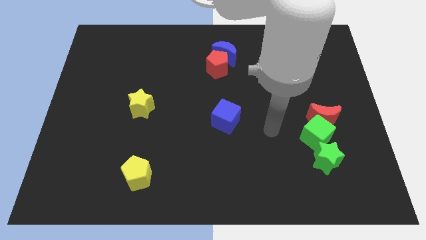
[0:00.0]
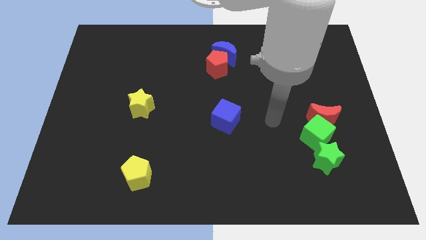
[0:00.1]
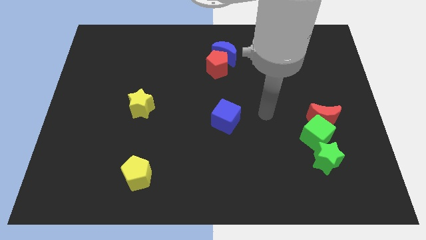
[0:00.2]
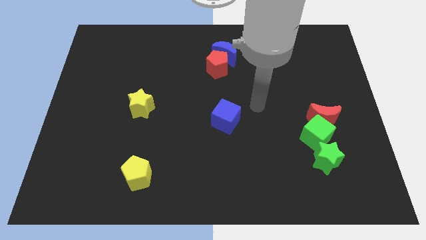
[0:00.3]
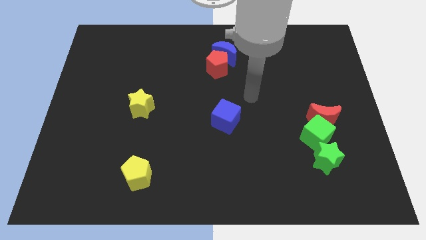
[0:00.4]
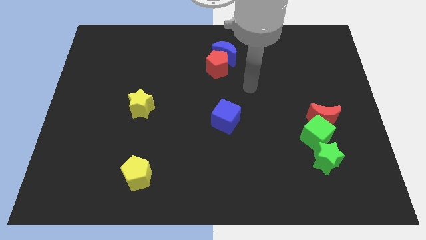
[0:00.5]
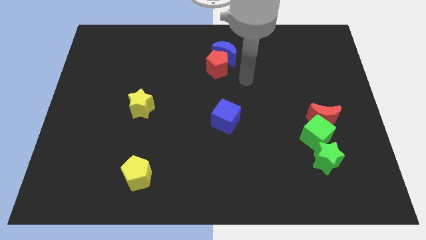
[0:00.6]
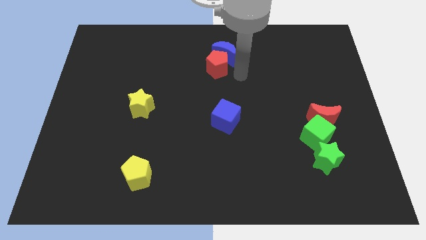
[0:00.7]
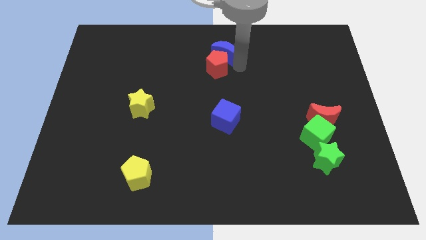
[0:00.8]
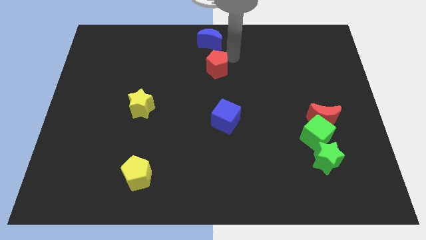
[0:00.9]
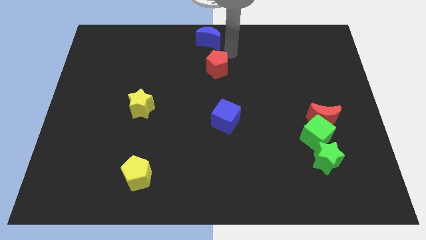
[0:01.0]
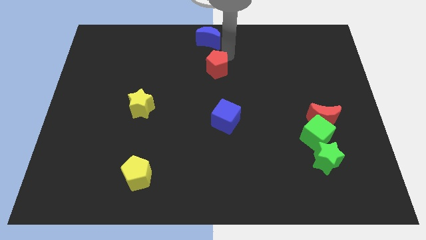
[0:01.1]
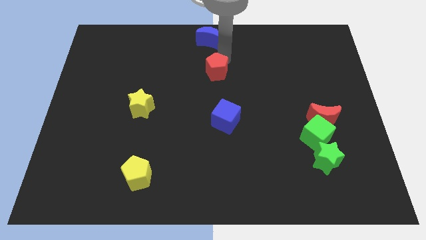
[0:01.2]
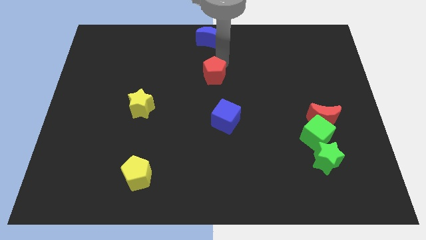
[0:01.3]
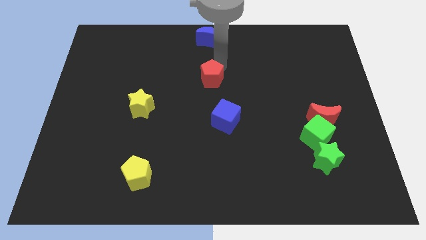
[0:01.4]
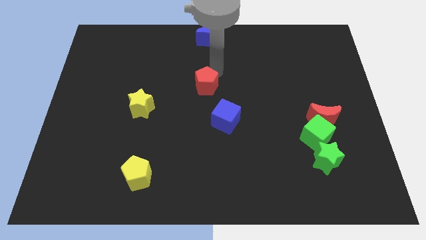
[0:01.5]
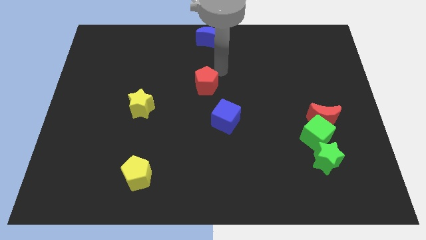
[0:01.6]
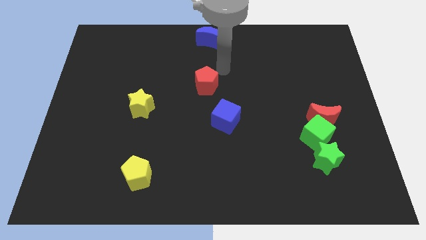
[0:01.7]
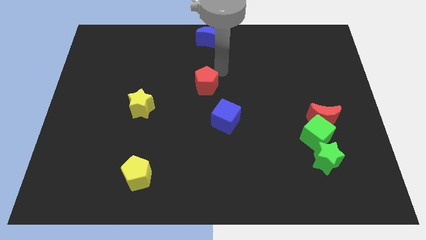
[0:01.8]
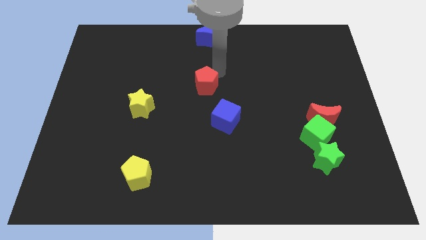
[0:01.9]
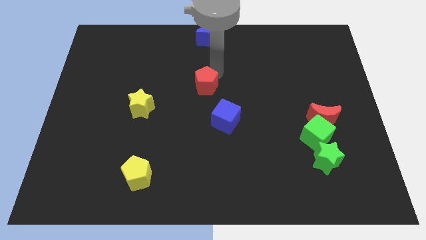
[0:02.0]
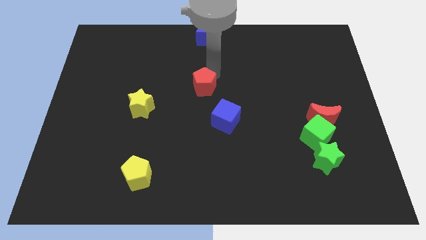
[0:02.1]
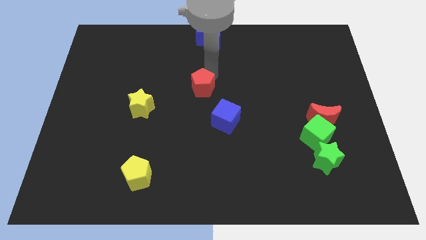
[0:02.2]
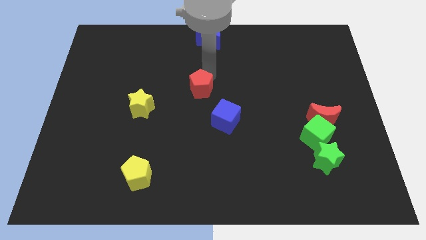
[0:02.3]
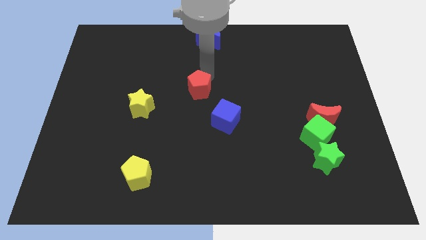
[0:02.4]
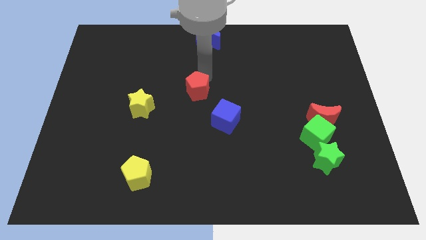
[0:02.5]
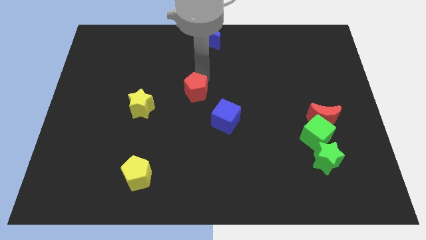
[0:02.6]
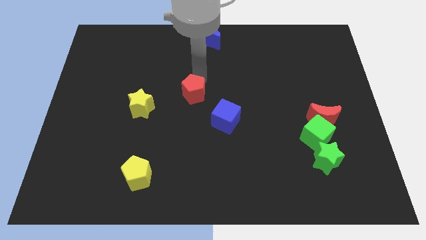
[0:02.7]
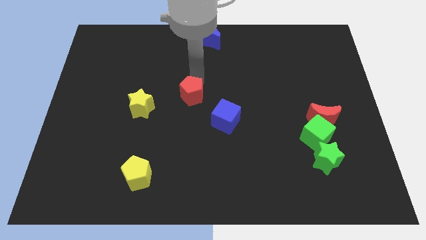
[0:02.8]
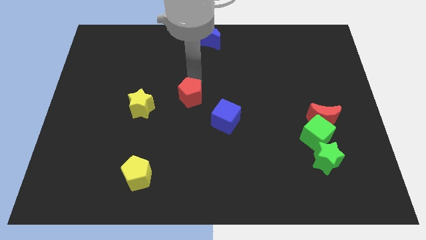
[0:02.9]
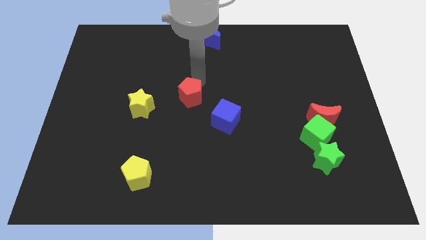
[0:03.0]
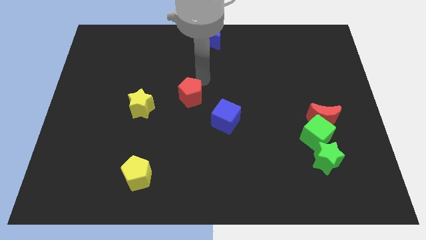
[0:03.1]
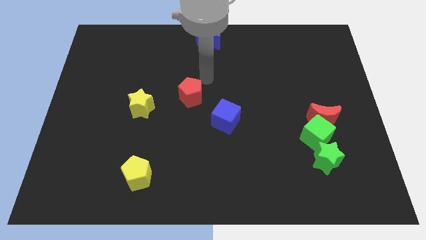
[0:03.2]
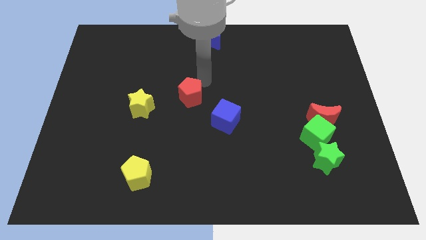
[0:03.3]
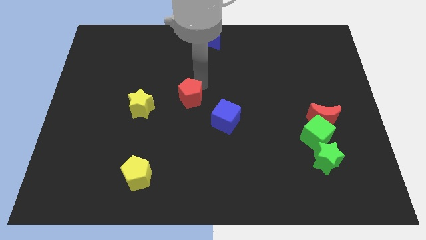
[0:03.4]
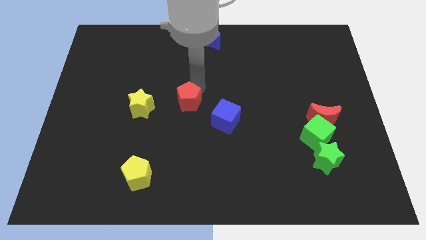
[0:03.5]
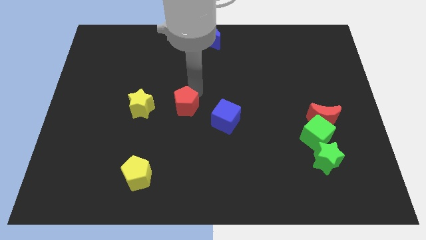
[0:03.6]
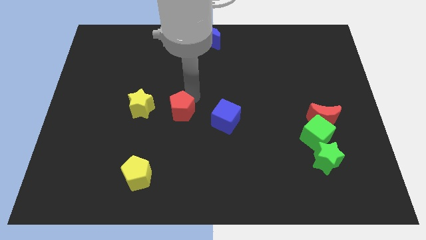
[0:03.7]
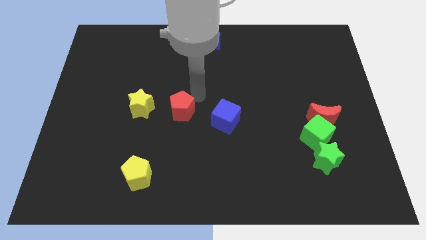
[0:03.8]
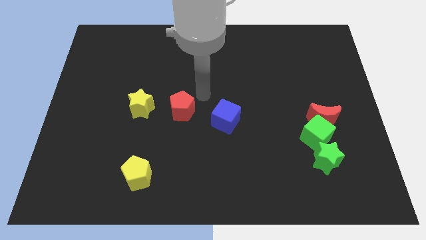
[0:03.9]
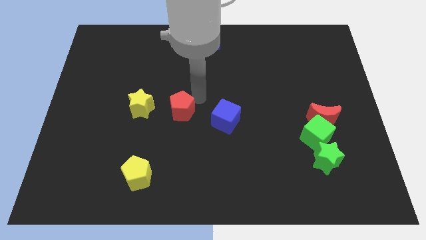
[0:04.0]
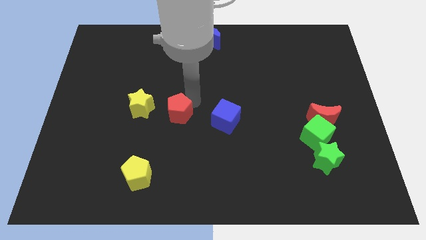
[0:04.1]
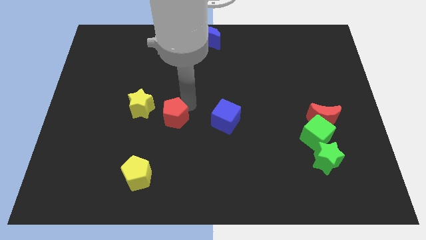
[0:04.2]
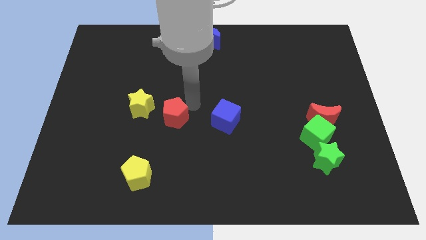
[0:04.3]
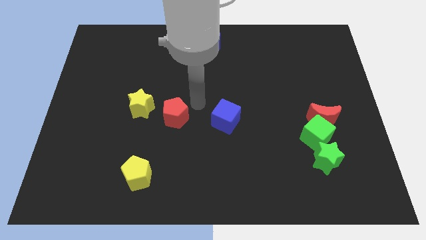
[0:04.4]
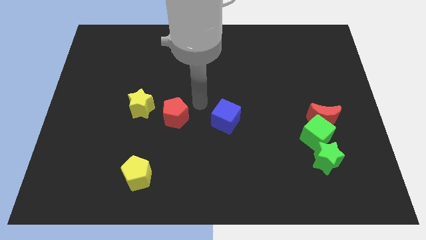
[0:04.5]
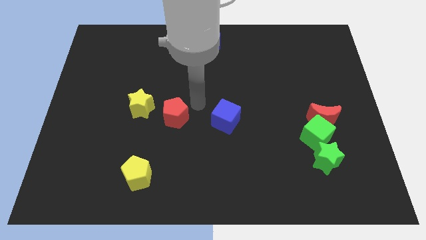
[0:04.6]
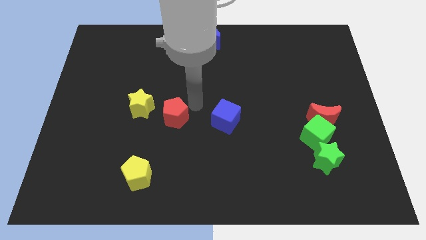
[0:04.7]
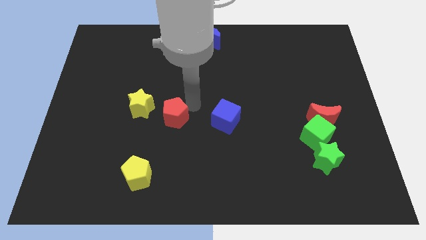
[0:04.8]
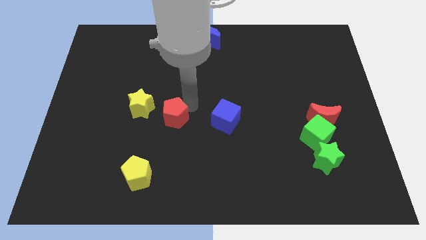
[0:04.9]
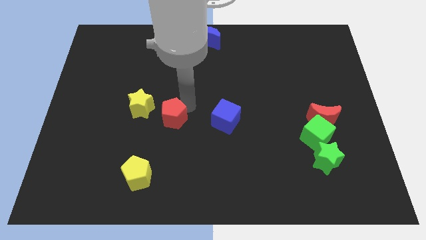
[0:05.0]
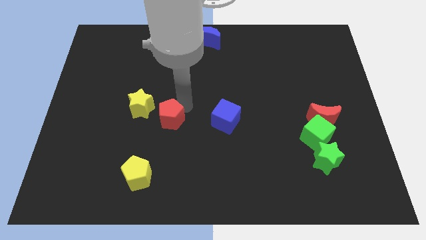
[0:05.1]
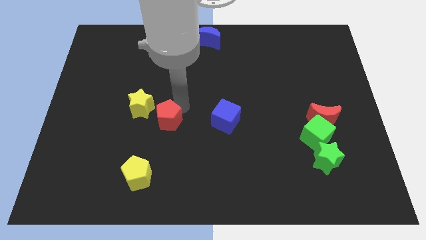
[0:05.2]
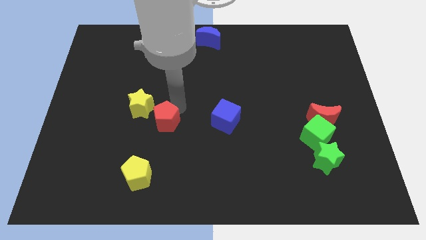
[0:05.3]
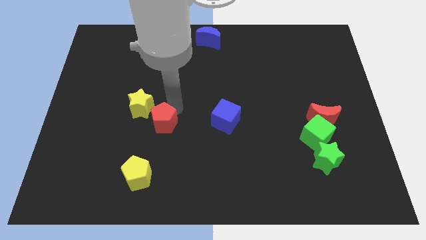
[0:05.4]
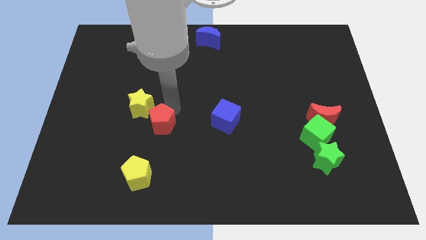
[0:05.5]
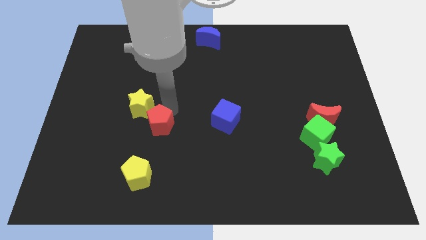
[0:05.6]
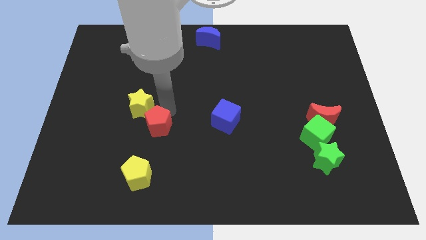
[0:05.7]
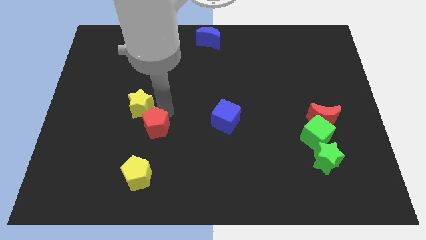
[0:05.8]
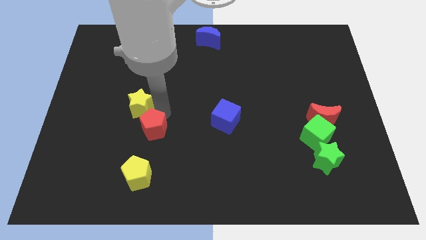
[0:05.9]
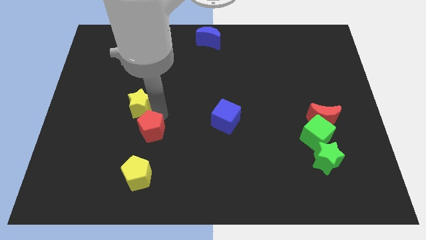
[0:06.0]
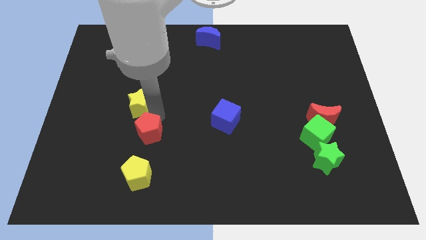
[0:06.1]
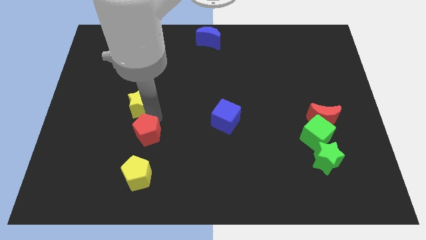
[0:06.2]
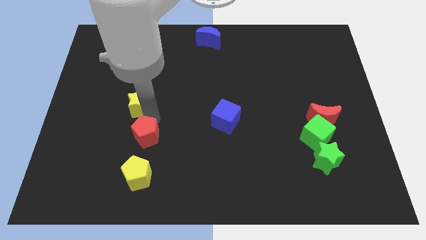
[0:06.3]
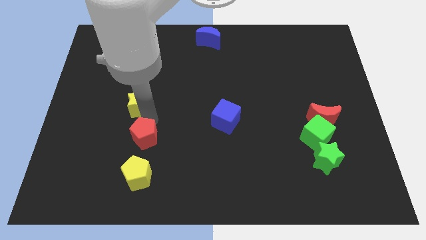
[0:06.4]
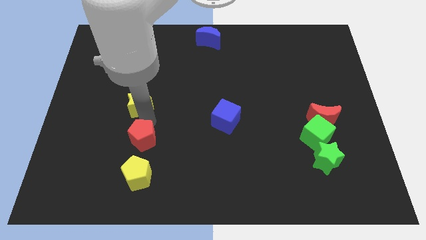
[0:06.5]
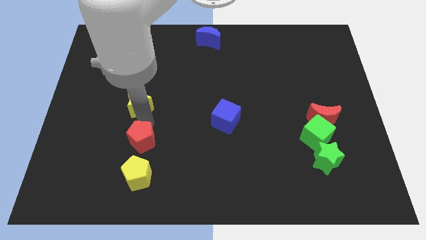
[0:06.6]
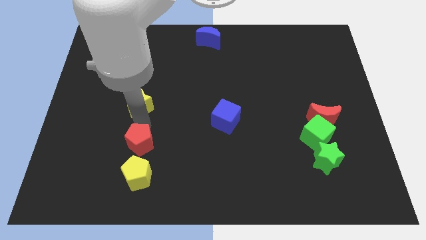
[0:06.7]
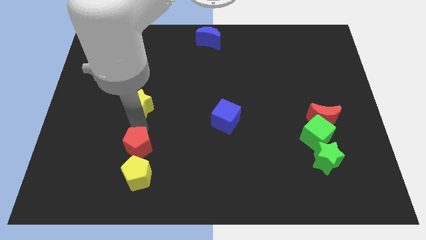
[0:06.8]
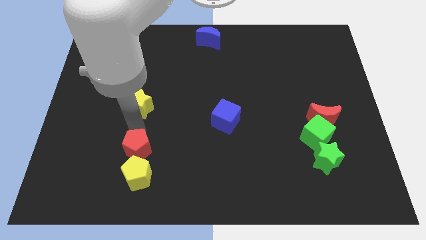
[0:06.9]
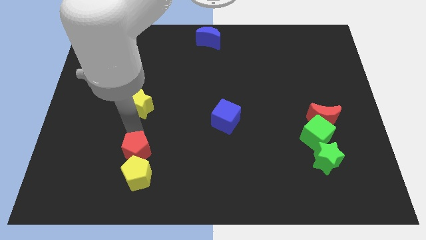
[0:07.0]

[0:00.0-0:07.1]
move the red pentagon next to the yellow pentagon

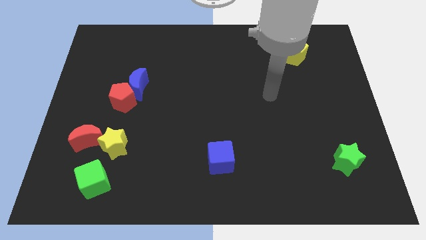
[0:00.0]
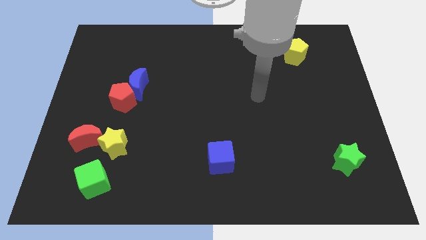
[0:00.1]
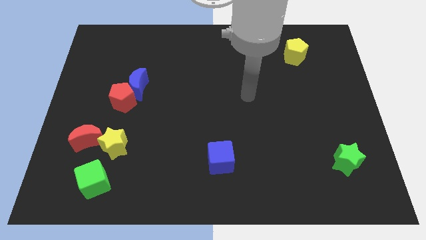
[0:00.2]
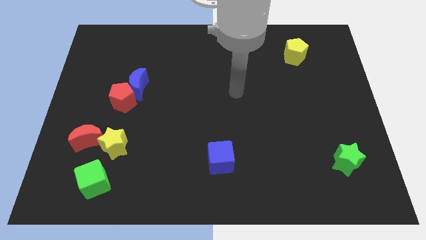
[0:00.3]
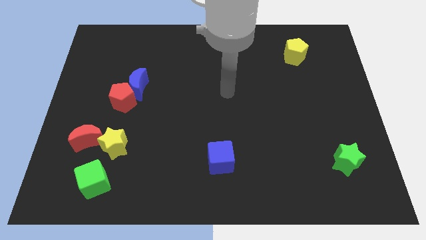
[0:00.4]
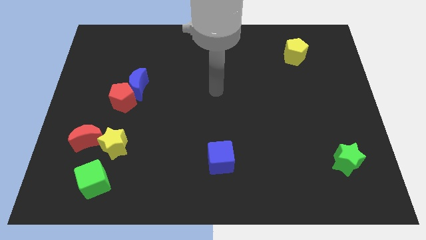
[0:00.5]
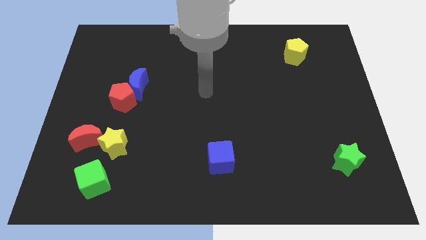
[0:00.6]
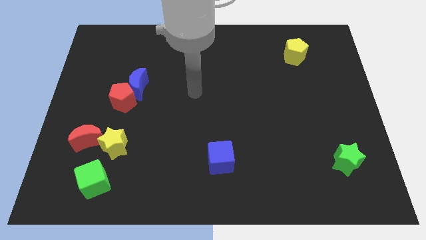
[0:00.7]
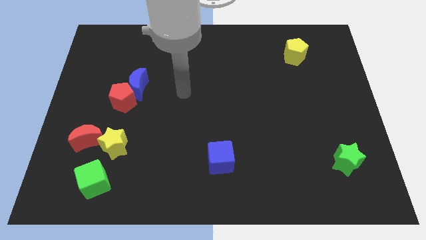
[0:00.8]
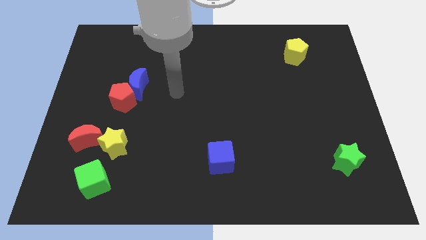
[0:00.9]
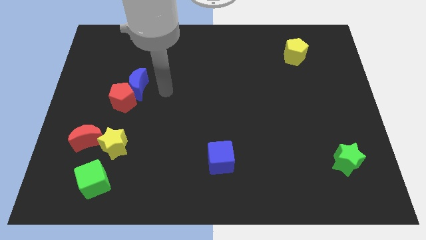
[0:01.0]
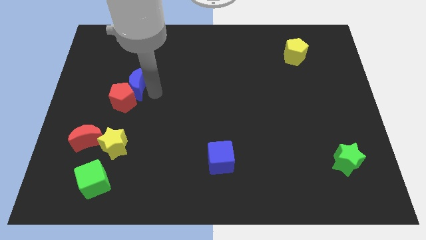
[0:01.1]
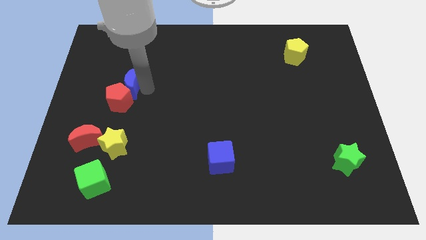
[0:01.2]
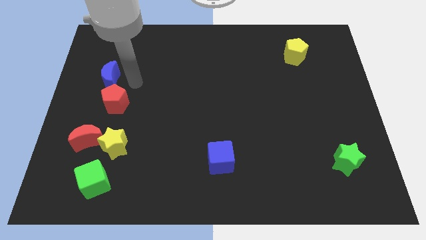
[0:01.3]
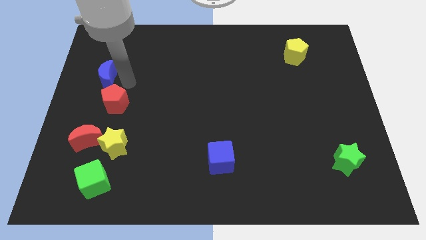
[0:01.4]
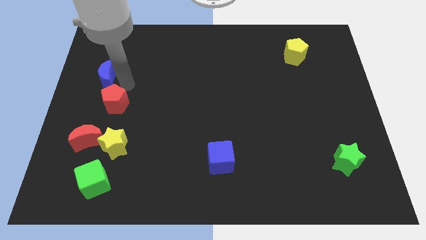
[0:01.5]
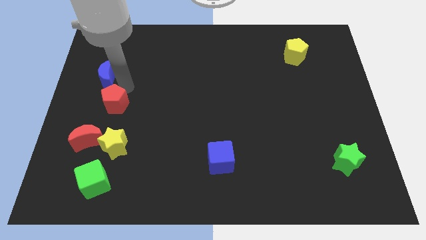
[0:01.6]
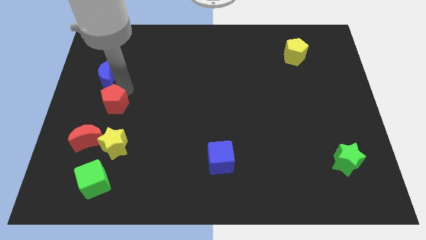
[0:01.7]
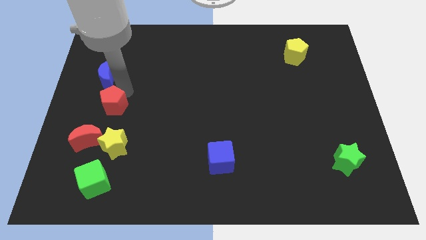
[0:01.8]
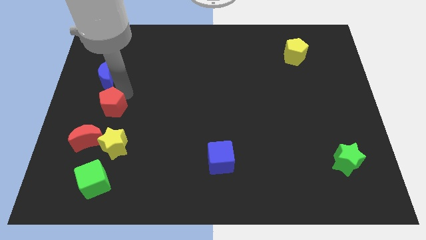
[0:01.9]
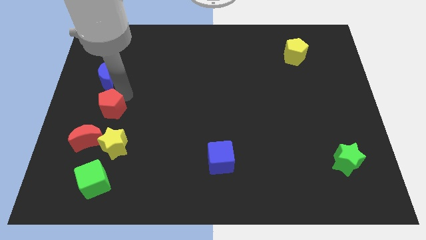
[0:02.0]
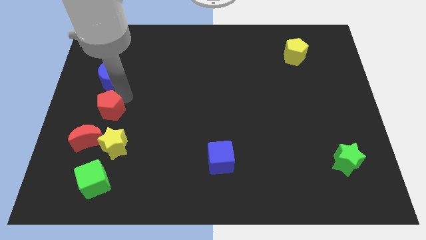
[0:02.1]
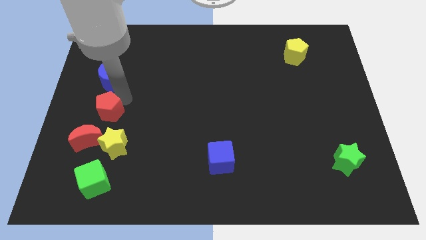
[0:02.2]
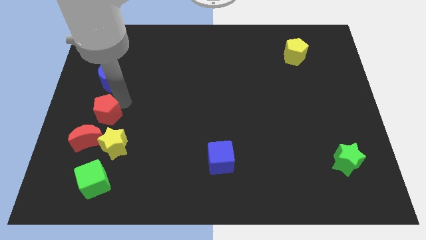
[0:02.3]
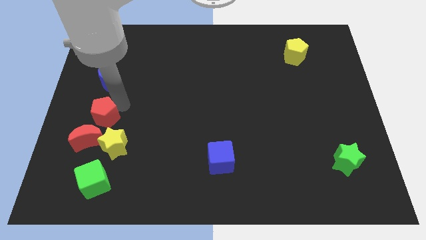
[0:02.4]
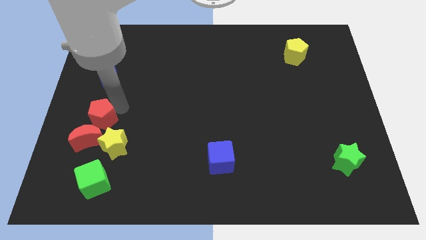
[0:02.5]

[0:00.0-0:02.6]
push the red pentagon towards the red moon
